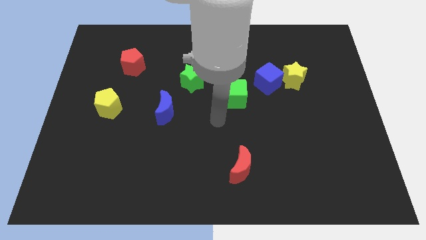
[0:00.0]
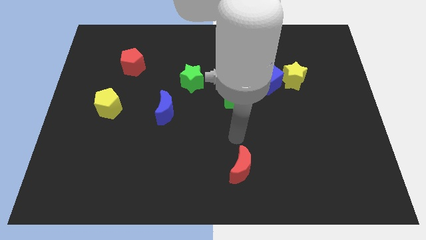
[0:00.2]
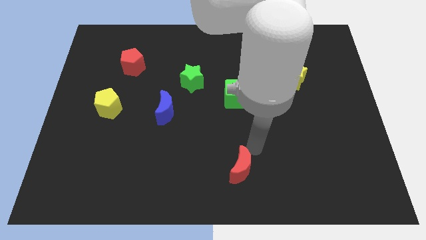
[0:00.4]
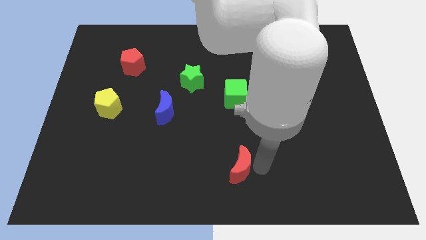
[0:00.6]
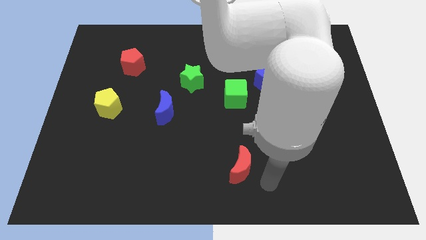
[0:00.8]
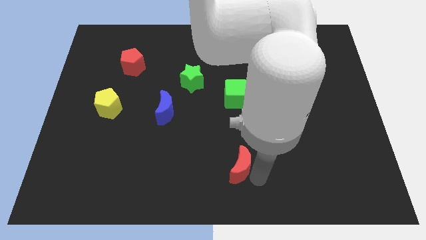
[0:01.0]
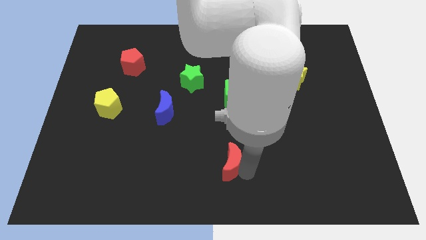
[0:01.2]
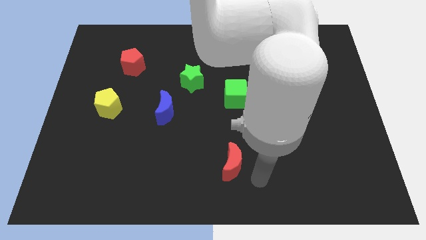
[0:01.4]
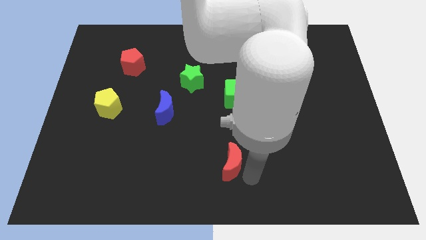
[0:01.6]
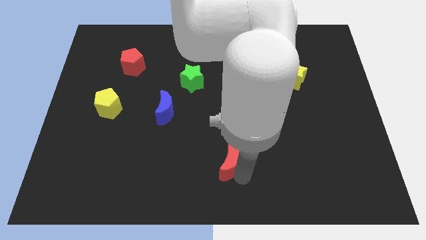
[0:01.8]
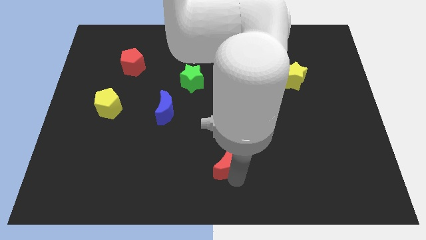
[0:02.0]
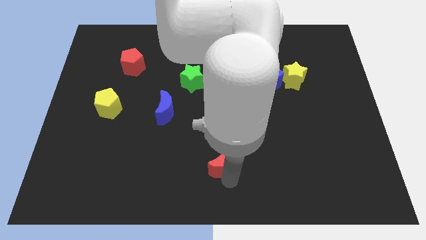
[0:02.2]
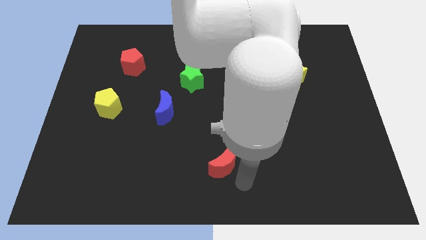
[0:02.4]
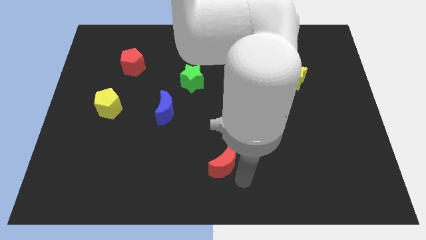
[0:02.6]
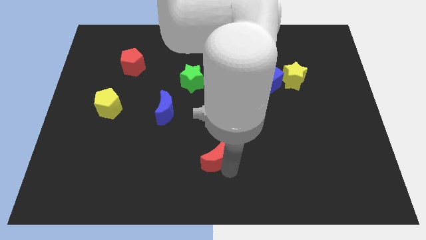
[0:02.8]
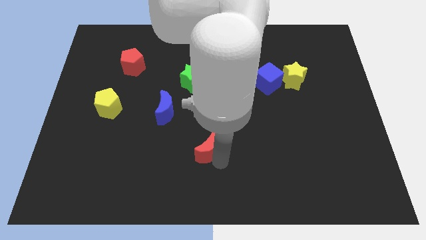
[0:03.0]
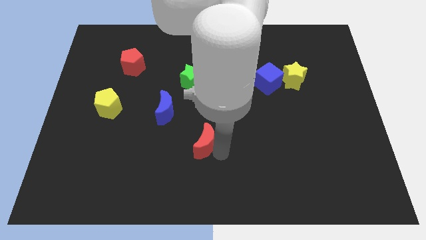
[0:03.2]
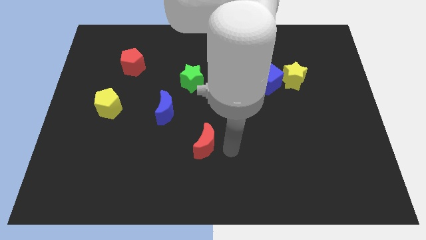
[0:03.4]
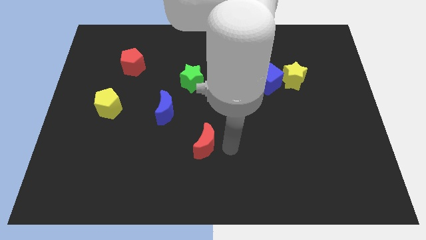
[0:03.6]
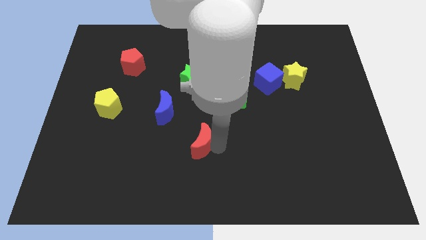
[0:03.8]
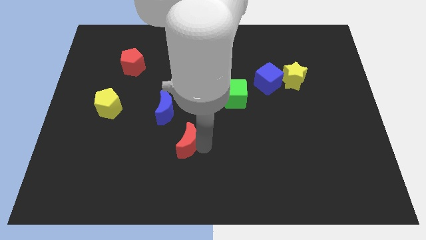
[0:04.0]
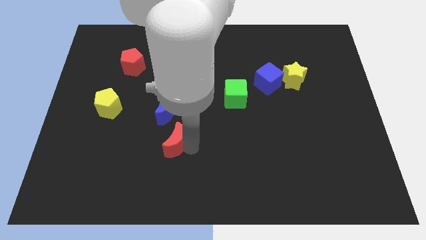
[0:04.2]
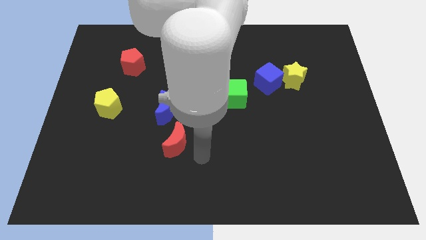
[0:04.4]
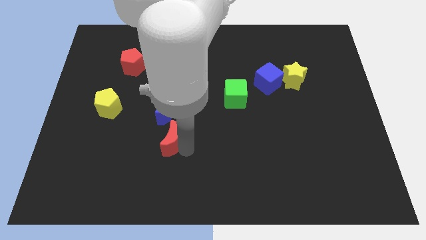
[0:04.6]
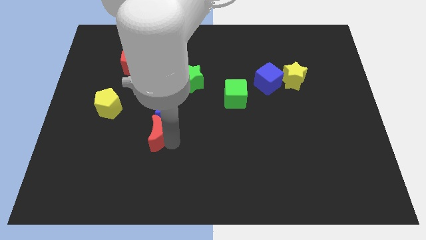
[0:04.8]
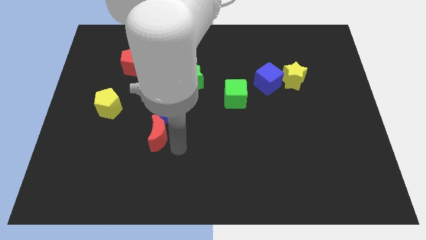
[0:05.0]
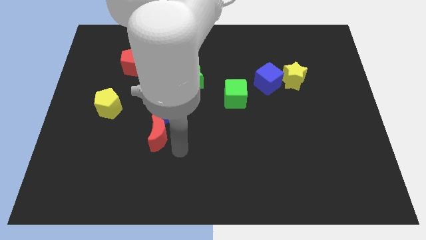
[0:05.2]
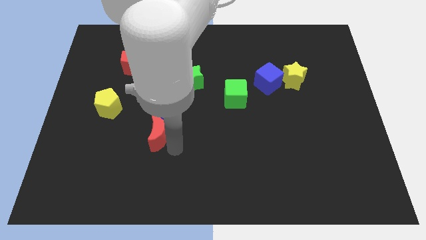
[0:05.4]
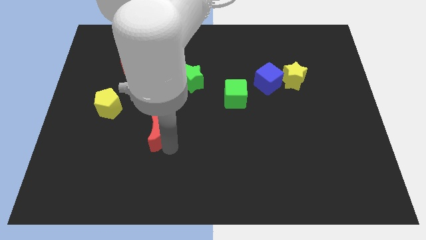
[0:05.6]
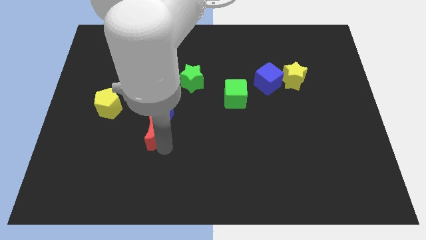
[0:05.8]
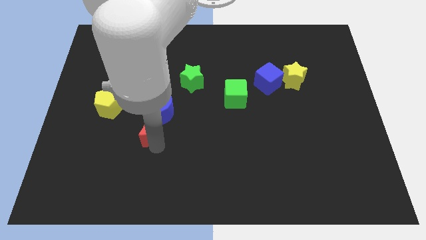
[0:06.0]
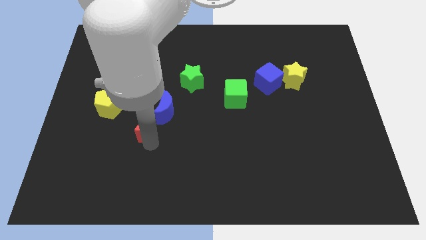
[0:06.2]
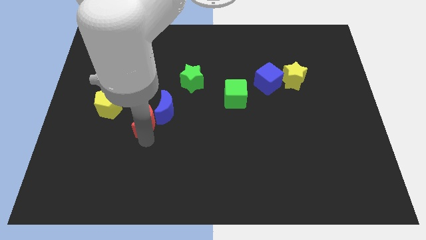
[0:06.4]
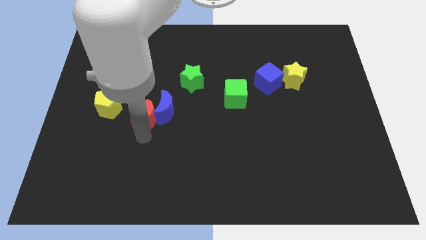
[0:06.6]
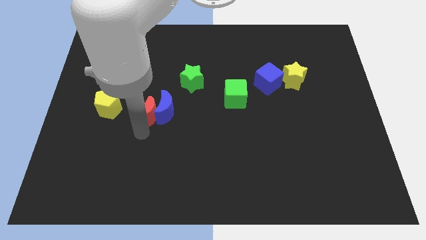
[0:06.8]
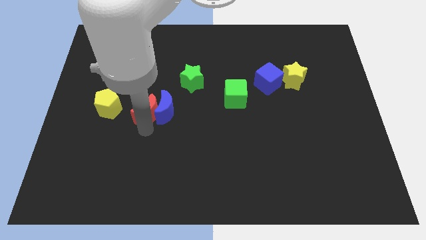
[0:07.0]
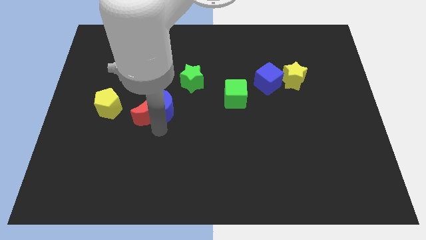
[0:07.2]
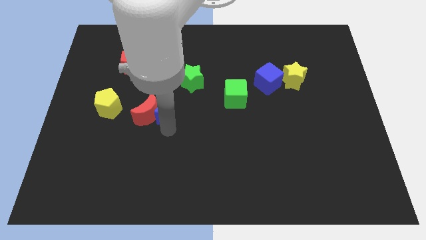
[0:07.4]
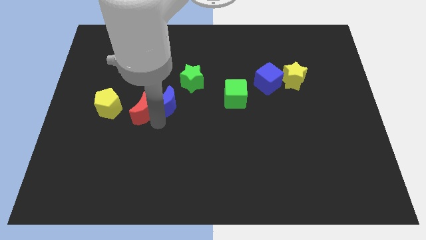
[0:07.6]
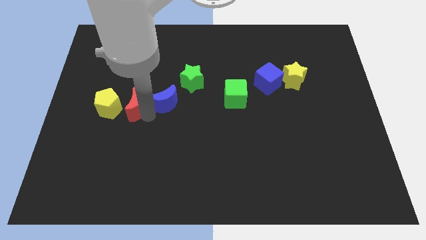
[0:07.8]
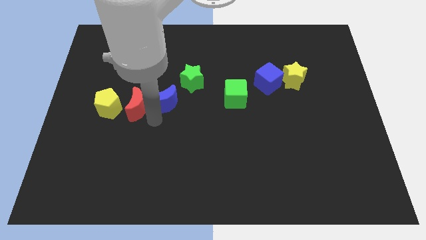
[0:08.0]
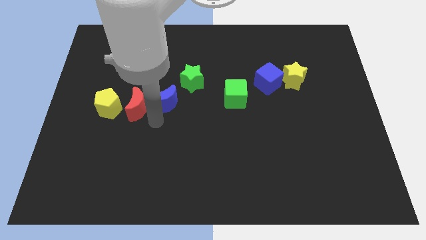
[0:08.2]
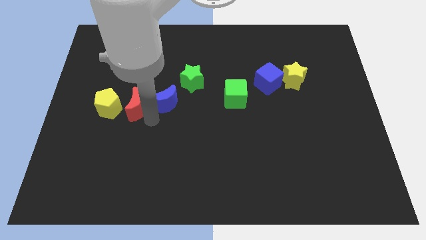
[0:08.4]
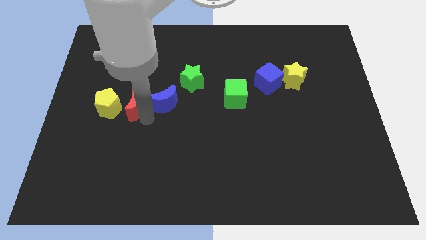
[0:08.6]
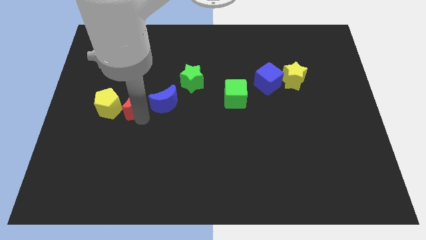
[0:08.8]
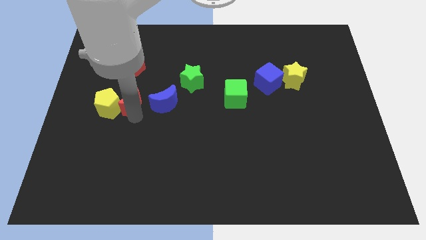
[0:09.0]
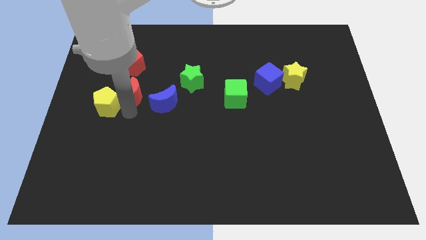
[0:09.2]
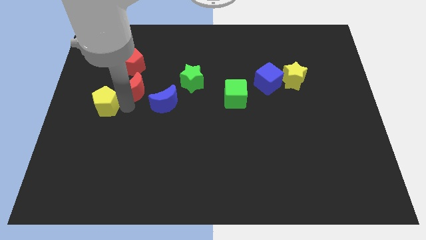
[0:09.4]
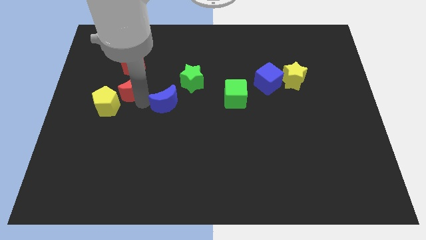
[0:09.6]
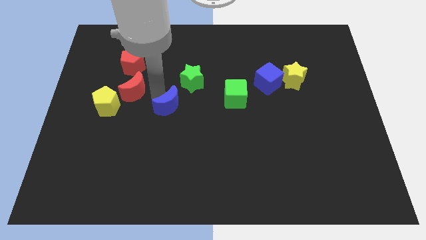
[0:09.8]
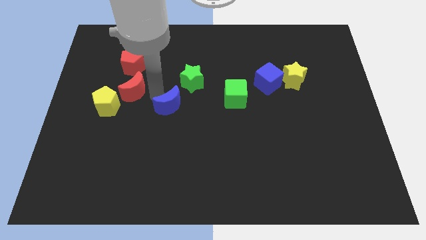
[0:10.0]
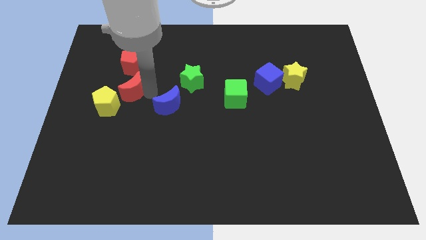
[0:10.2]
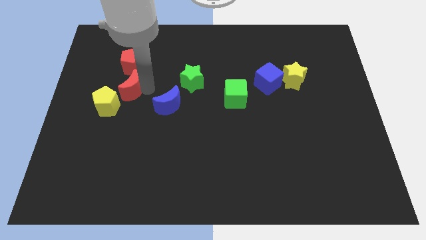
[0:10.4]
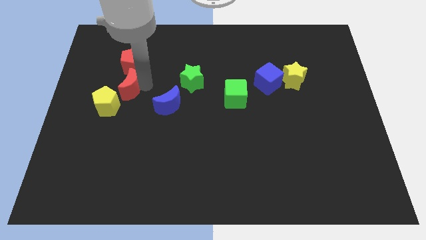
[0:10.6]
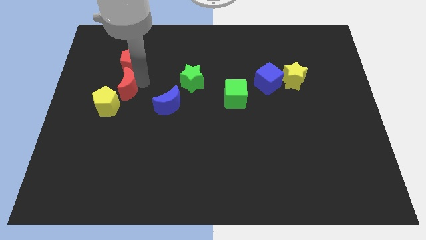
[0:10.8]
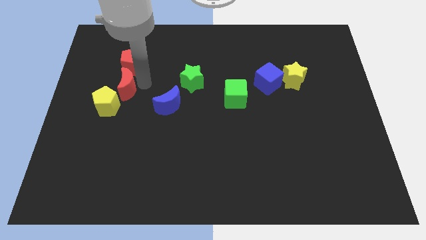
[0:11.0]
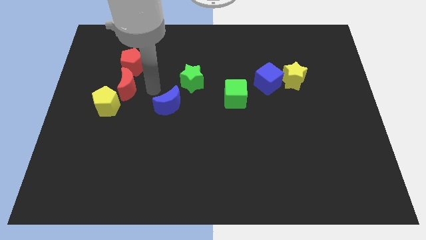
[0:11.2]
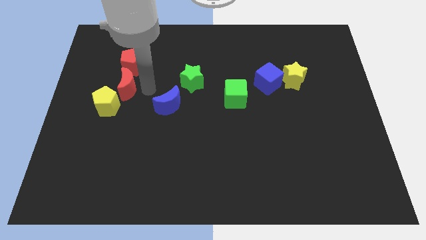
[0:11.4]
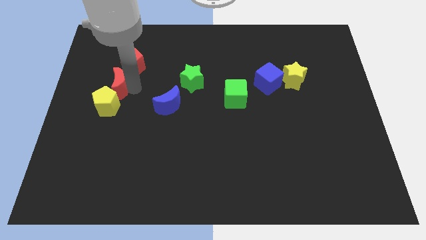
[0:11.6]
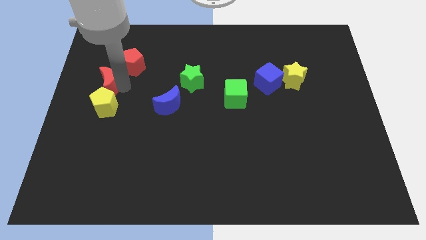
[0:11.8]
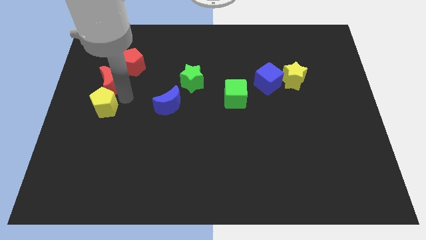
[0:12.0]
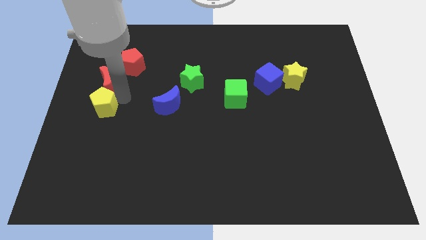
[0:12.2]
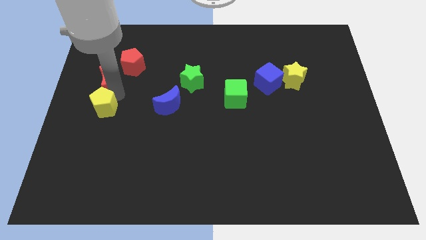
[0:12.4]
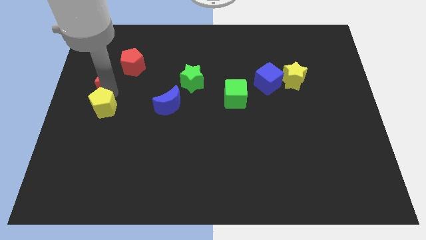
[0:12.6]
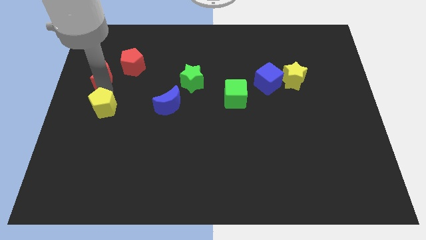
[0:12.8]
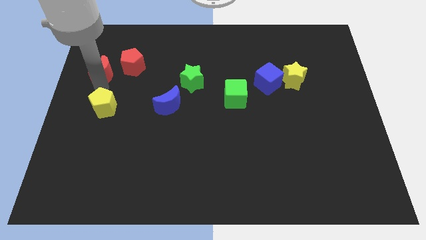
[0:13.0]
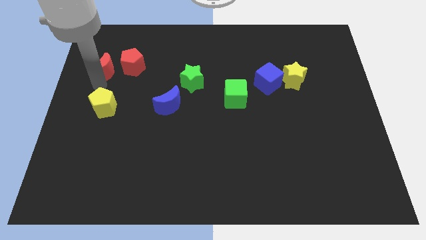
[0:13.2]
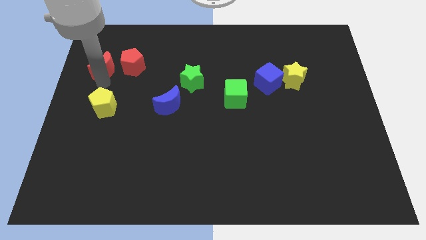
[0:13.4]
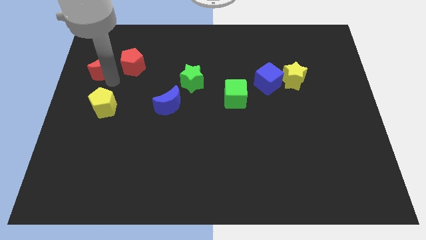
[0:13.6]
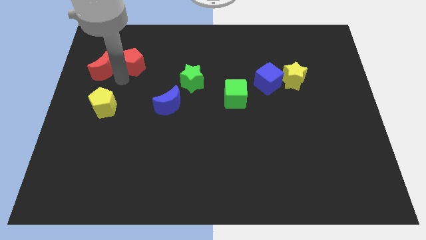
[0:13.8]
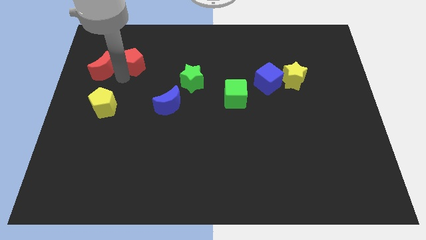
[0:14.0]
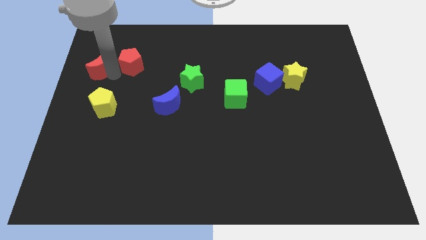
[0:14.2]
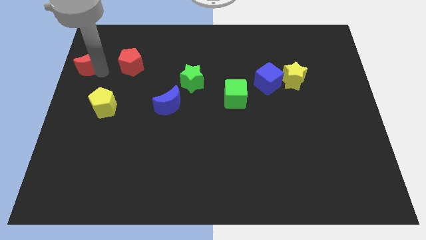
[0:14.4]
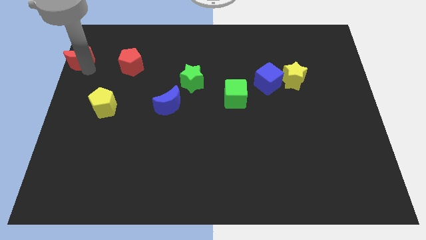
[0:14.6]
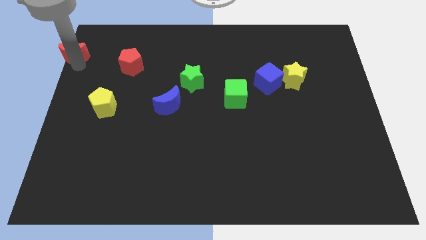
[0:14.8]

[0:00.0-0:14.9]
put the red moon to the upper left corner

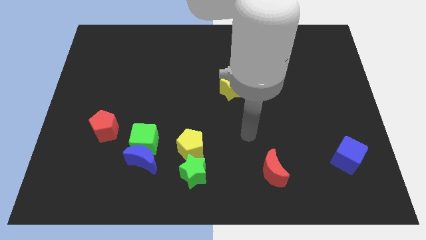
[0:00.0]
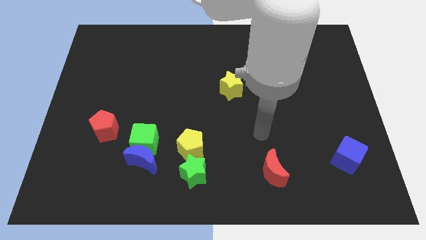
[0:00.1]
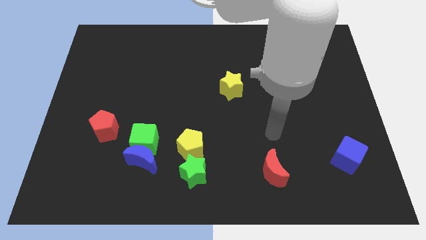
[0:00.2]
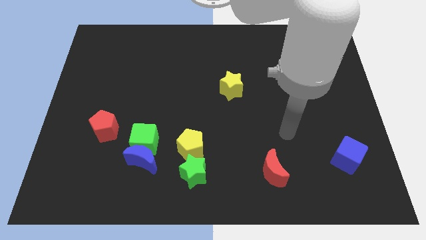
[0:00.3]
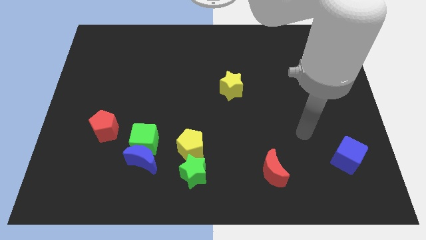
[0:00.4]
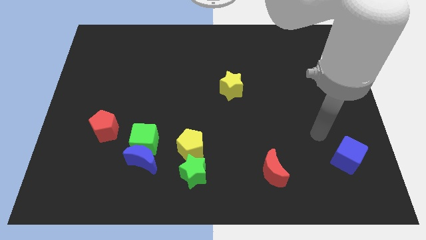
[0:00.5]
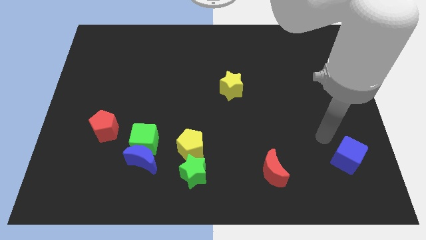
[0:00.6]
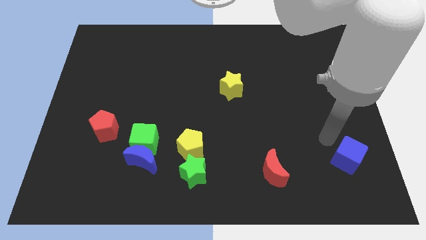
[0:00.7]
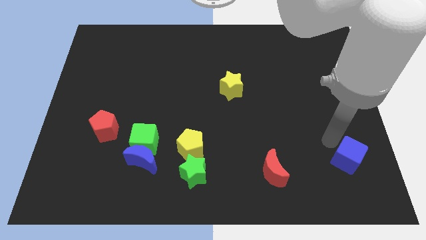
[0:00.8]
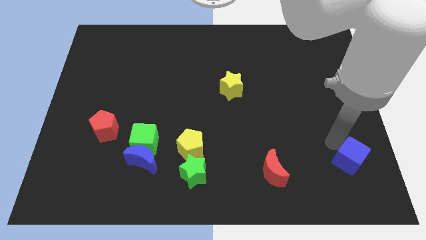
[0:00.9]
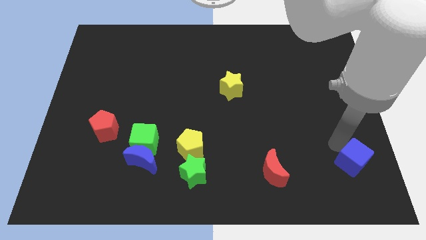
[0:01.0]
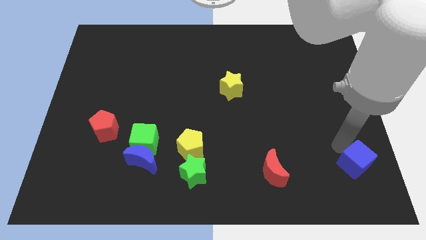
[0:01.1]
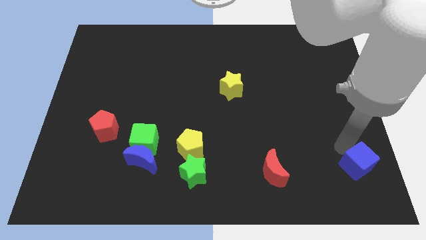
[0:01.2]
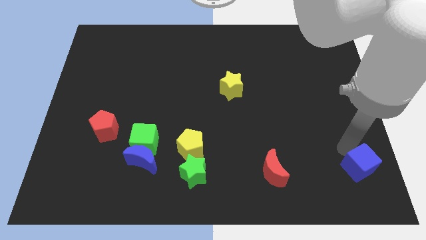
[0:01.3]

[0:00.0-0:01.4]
move the blue cube to the bottom right
